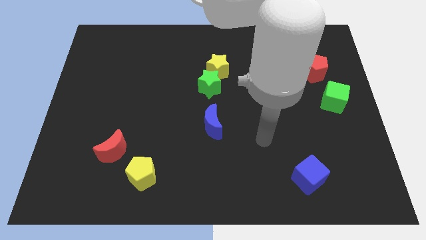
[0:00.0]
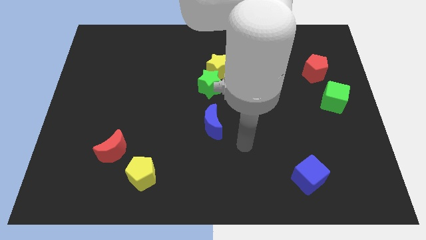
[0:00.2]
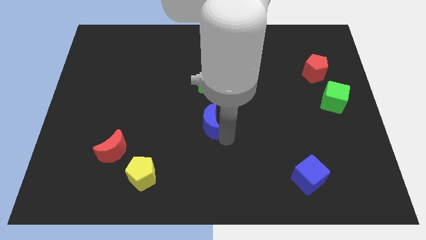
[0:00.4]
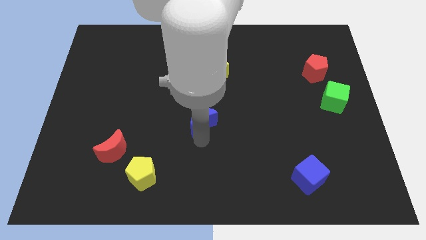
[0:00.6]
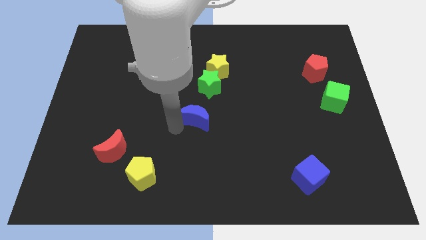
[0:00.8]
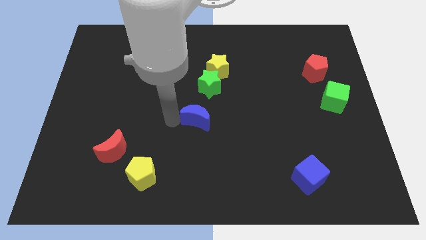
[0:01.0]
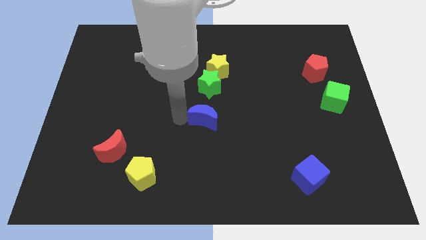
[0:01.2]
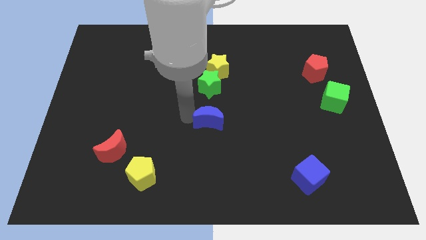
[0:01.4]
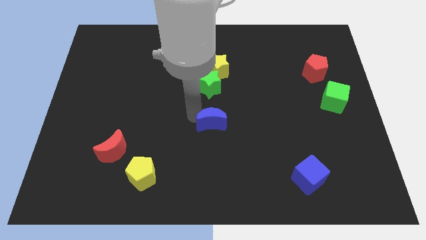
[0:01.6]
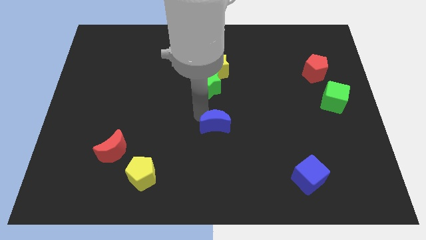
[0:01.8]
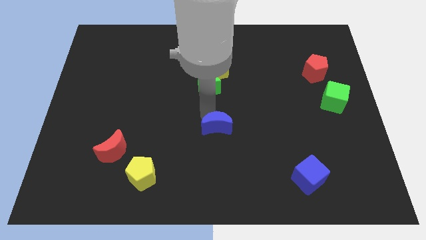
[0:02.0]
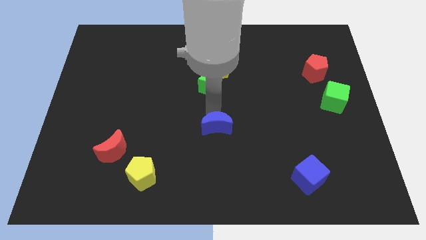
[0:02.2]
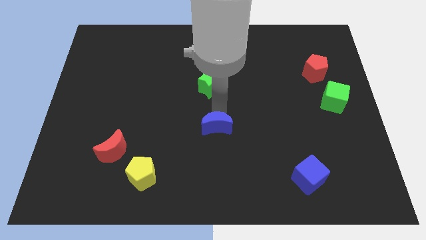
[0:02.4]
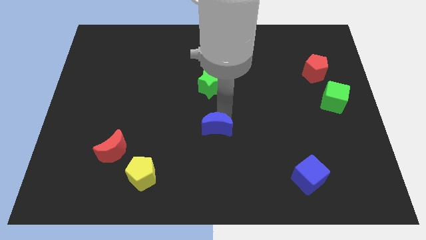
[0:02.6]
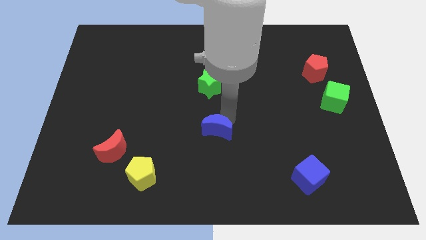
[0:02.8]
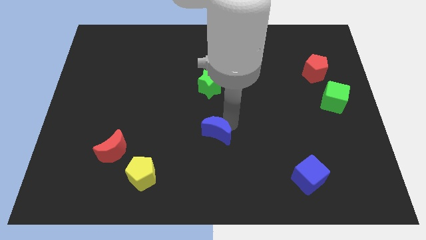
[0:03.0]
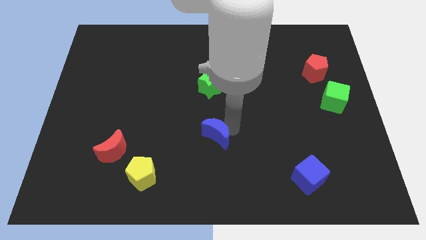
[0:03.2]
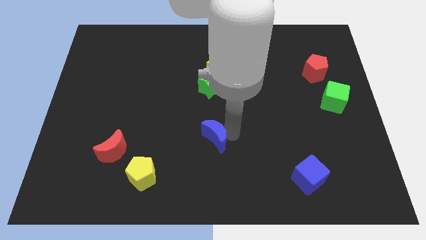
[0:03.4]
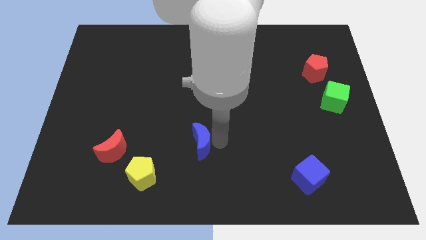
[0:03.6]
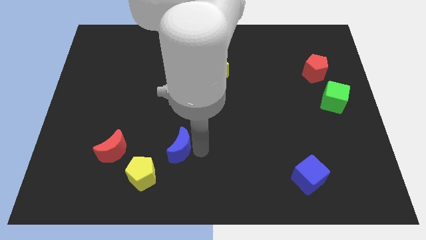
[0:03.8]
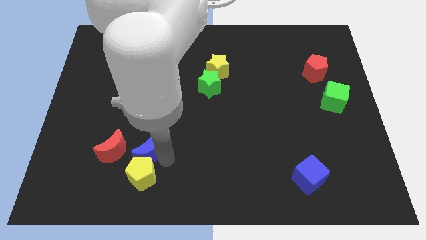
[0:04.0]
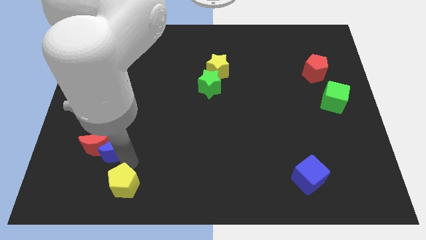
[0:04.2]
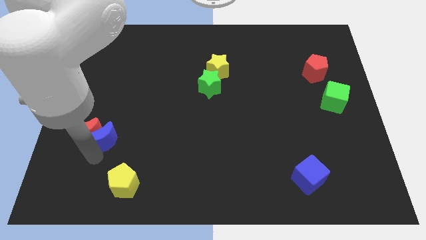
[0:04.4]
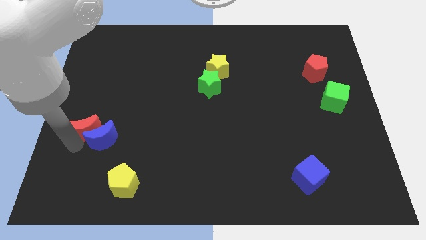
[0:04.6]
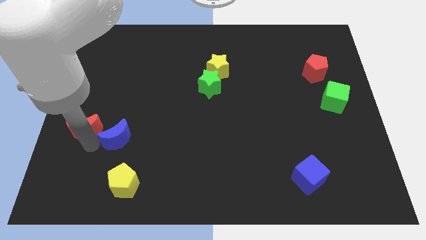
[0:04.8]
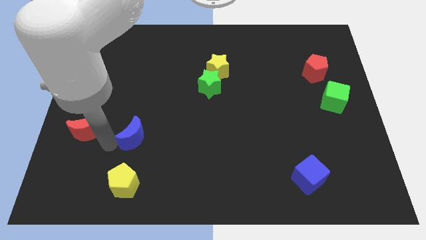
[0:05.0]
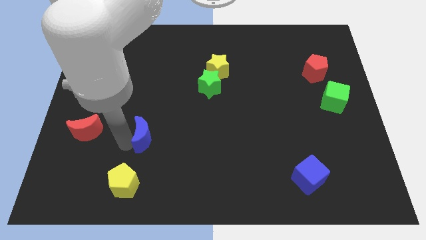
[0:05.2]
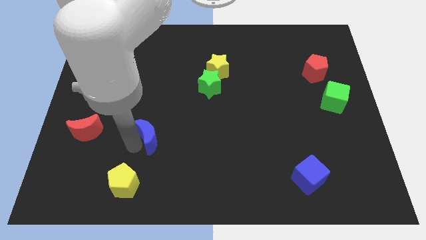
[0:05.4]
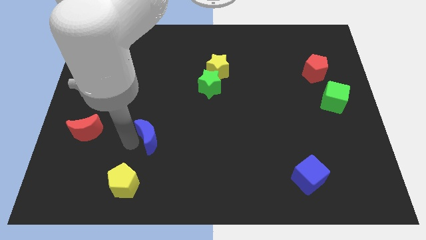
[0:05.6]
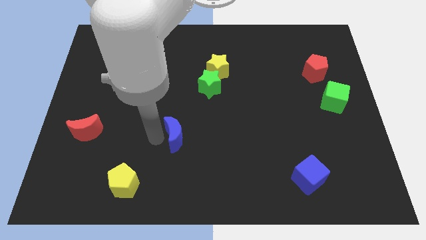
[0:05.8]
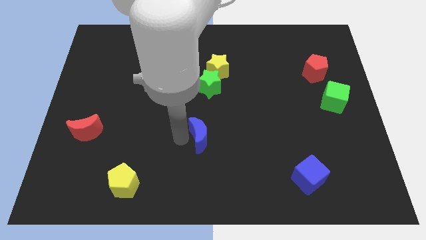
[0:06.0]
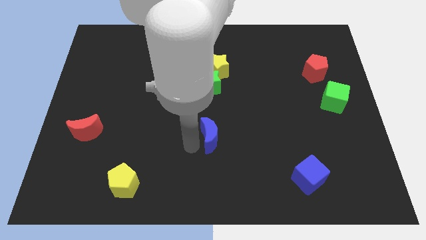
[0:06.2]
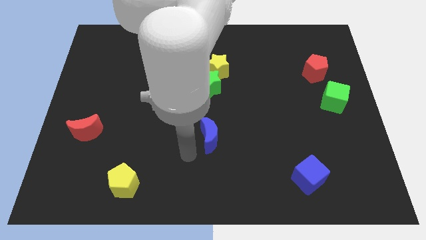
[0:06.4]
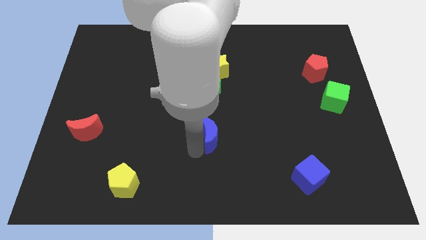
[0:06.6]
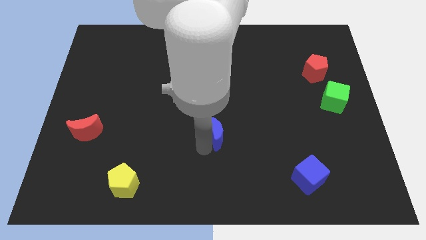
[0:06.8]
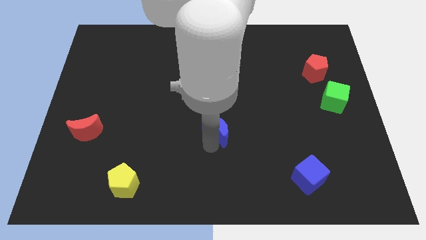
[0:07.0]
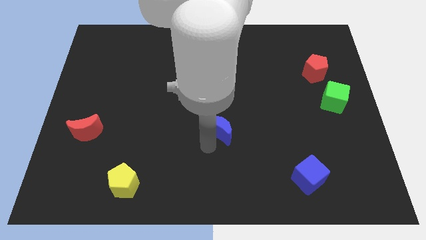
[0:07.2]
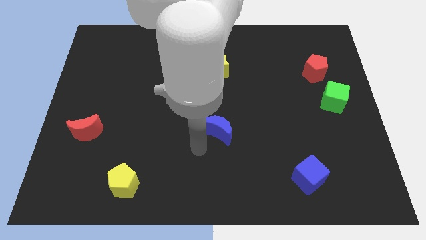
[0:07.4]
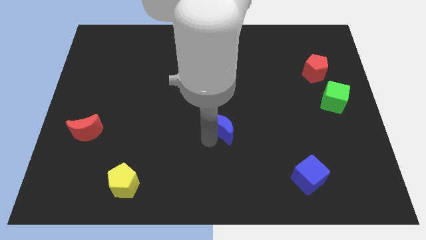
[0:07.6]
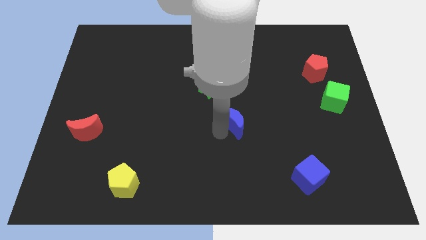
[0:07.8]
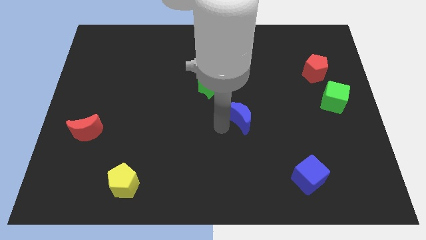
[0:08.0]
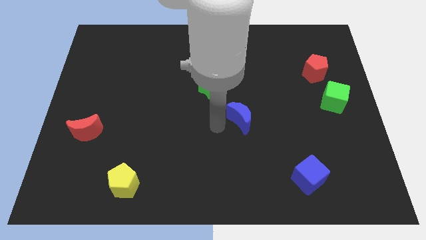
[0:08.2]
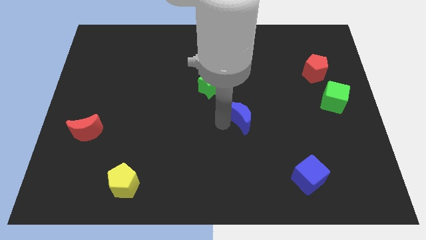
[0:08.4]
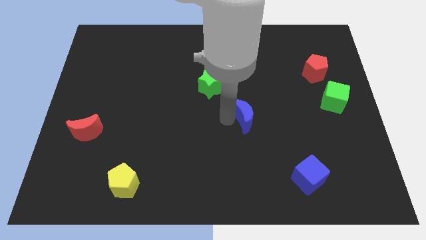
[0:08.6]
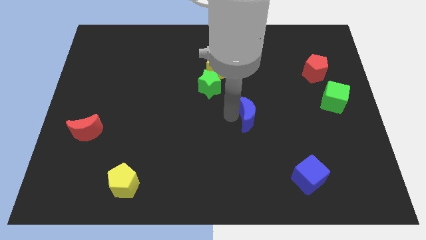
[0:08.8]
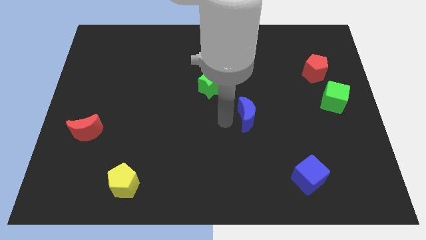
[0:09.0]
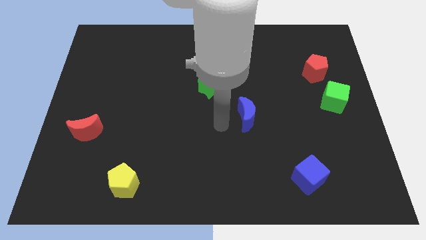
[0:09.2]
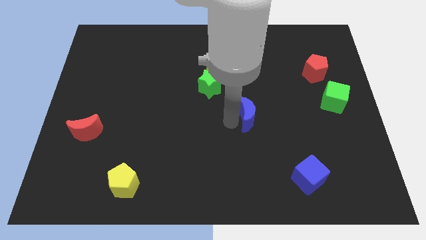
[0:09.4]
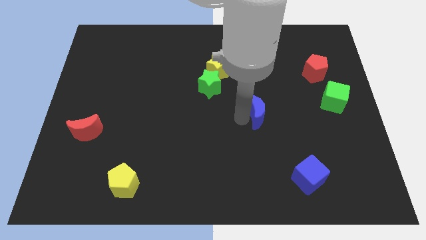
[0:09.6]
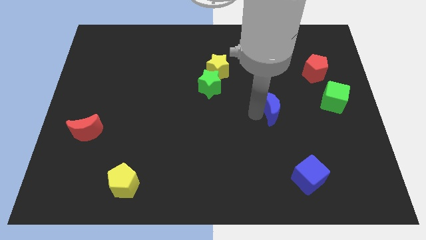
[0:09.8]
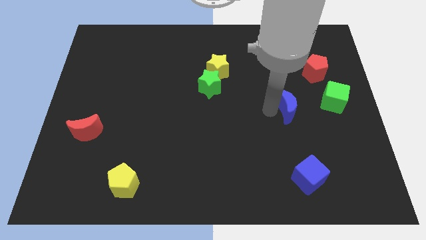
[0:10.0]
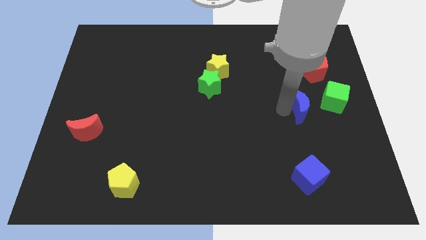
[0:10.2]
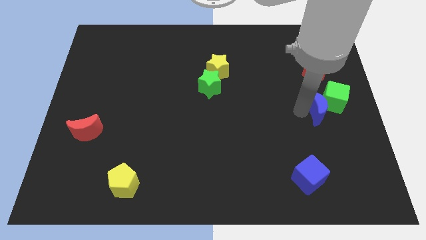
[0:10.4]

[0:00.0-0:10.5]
push the blue moon next to the green cube

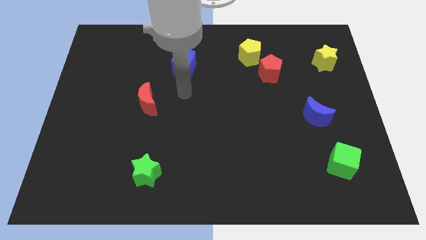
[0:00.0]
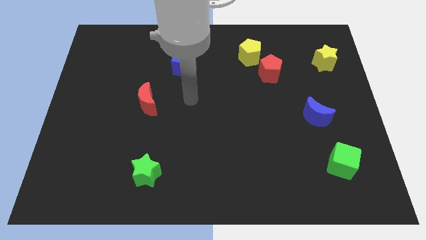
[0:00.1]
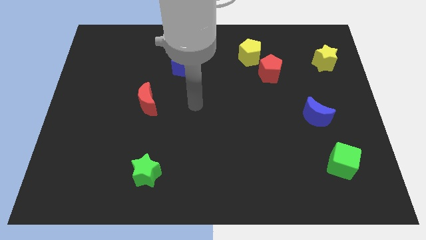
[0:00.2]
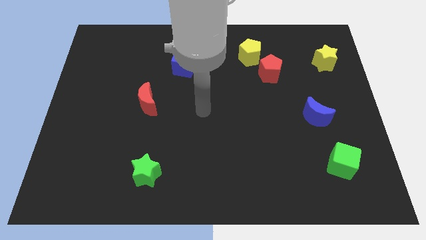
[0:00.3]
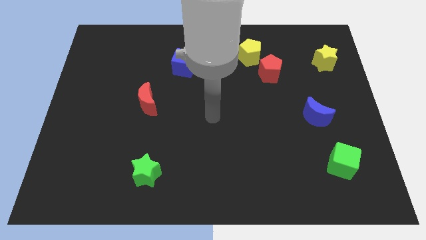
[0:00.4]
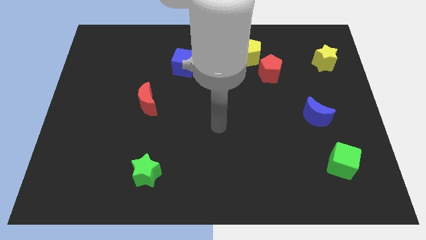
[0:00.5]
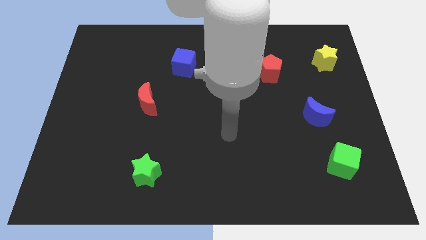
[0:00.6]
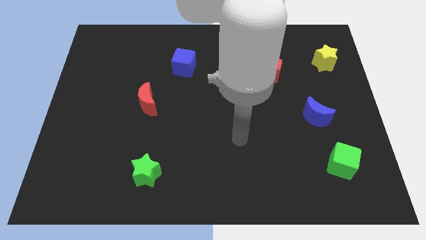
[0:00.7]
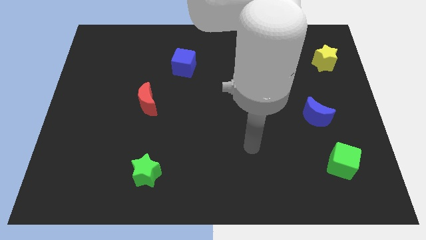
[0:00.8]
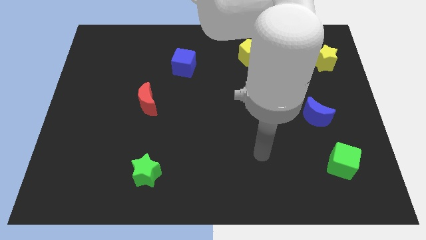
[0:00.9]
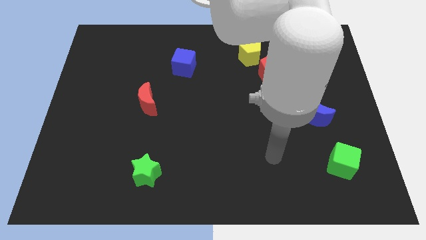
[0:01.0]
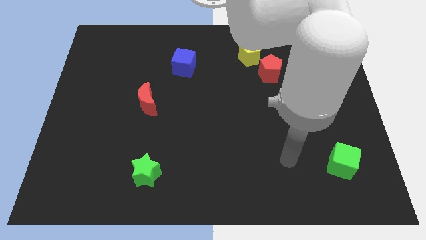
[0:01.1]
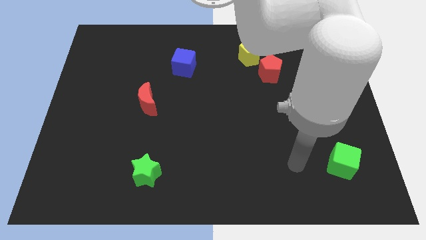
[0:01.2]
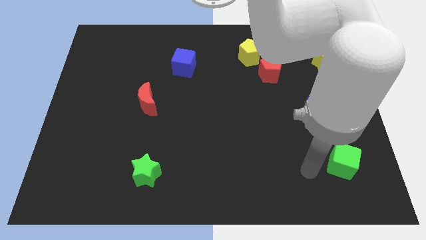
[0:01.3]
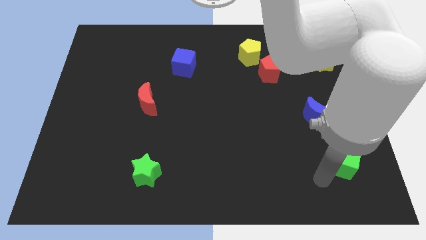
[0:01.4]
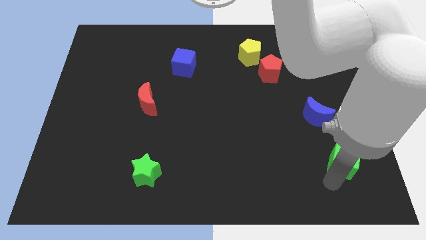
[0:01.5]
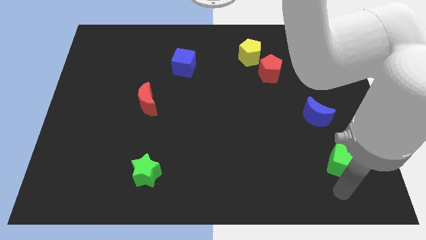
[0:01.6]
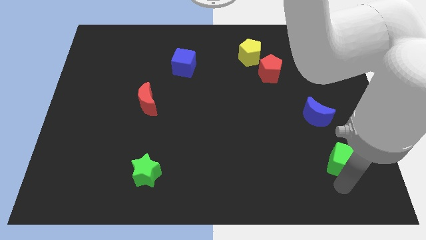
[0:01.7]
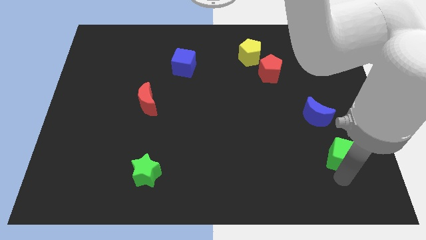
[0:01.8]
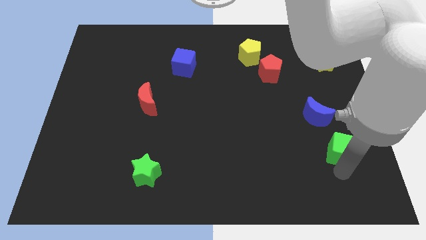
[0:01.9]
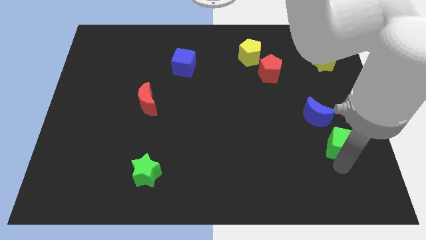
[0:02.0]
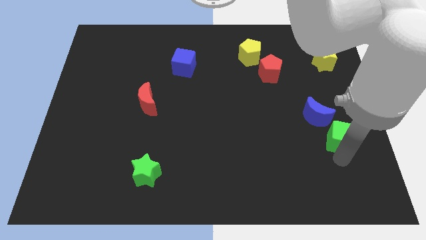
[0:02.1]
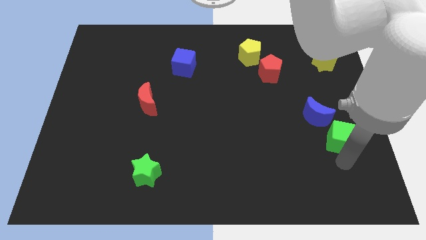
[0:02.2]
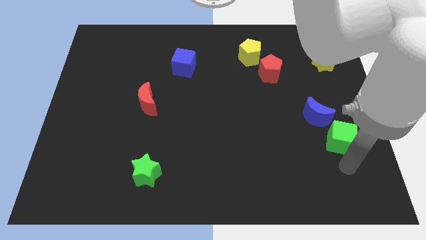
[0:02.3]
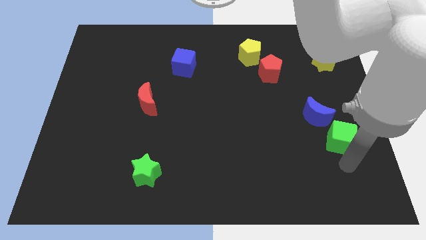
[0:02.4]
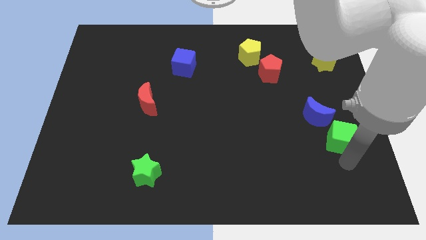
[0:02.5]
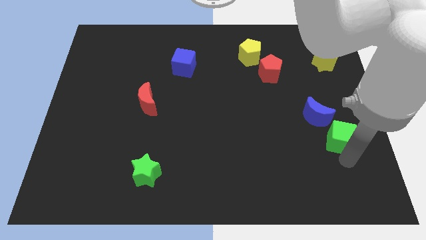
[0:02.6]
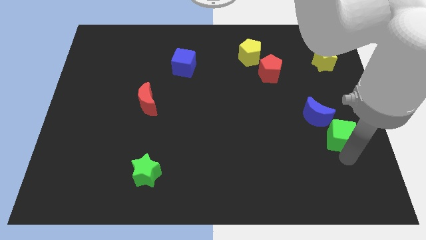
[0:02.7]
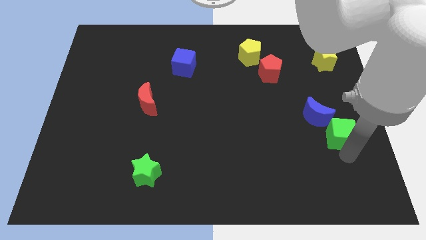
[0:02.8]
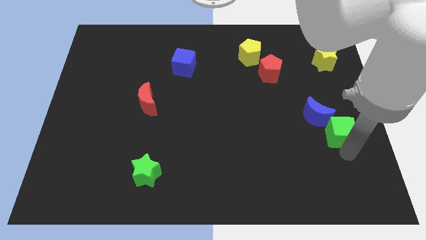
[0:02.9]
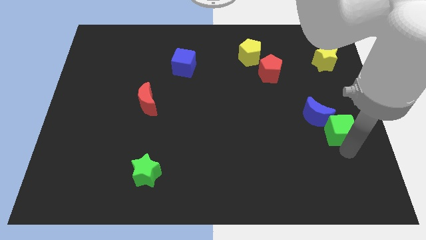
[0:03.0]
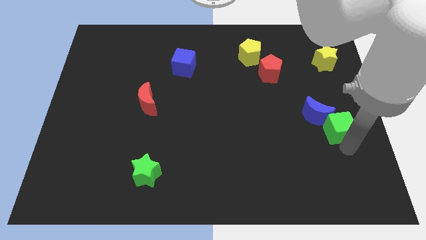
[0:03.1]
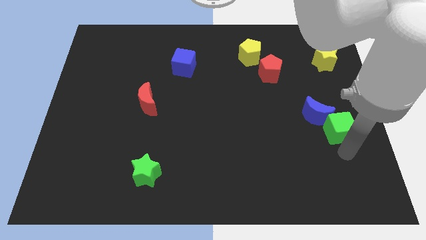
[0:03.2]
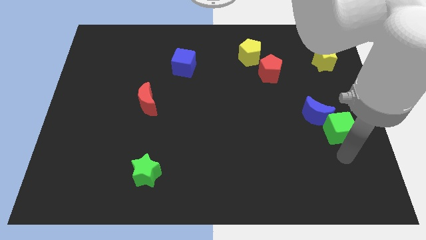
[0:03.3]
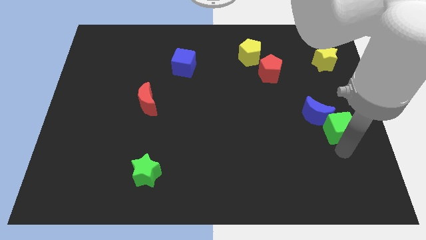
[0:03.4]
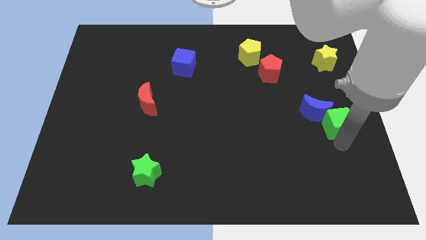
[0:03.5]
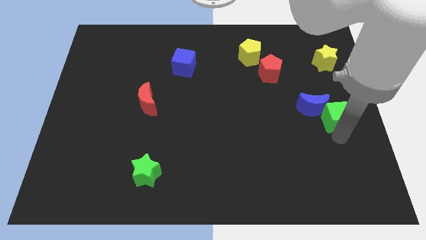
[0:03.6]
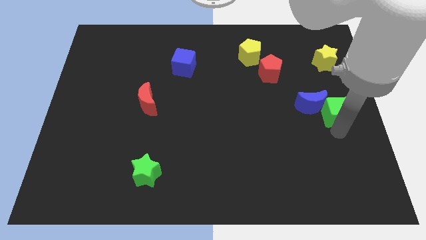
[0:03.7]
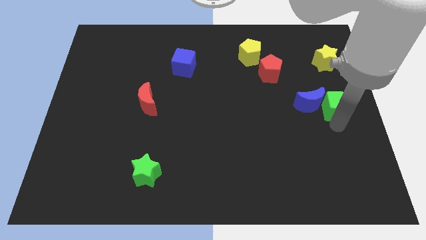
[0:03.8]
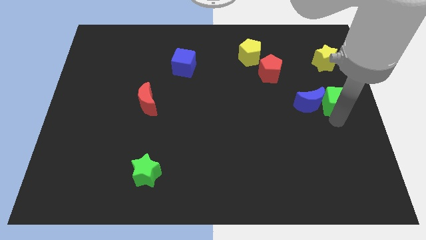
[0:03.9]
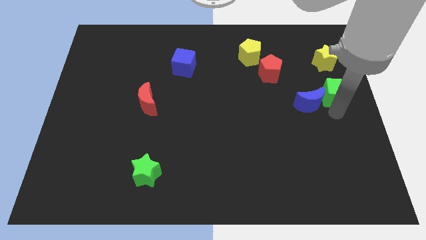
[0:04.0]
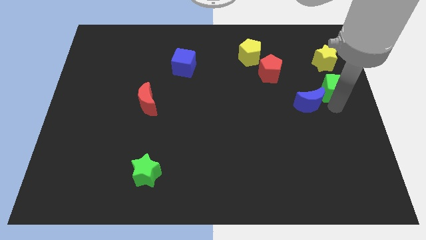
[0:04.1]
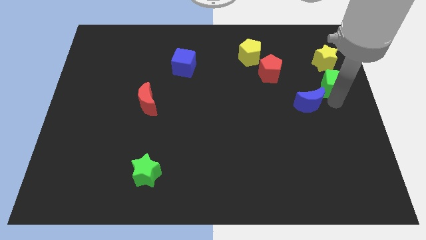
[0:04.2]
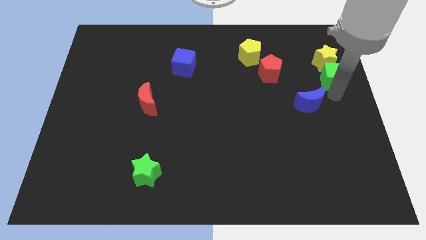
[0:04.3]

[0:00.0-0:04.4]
put the green cube to the yellow star
